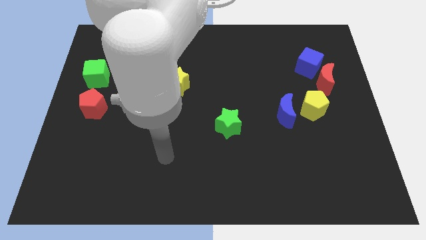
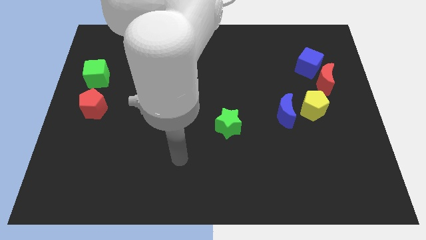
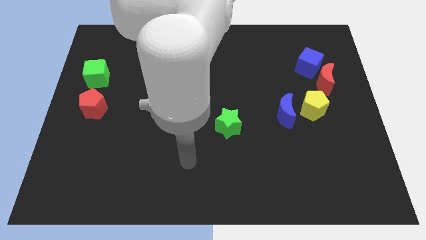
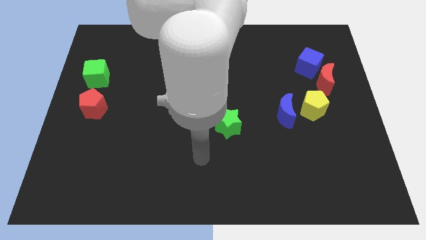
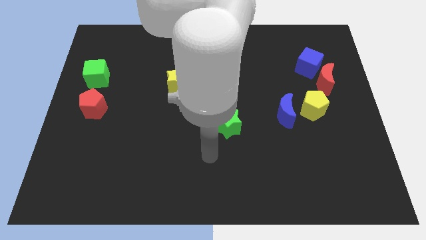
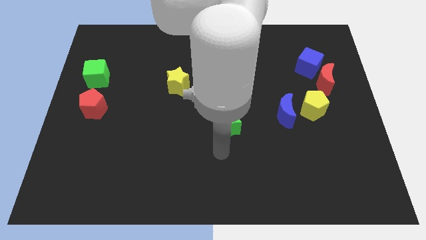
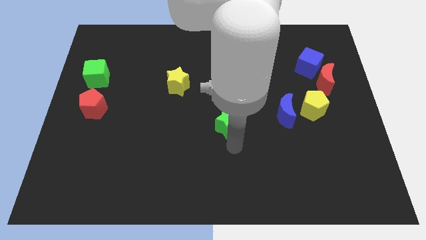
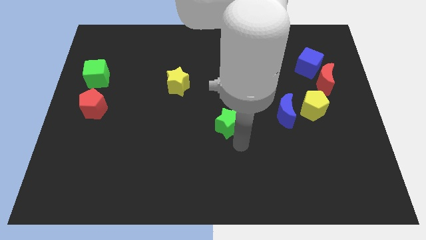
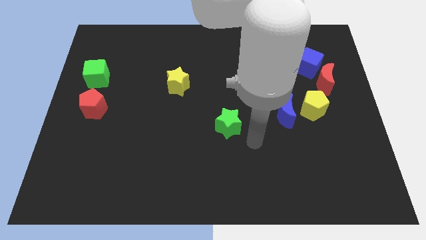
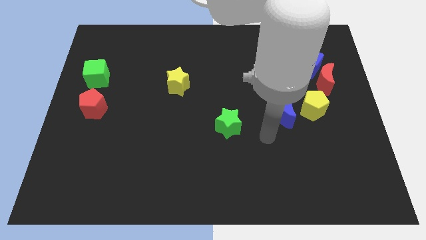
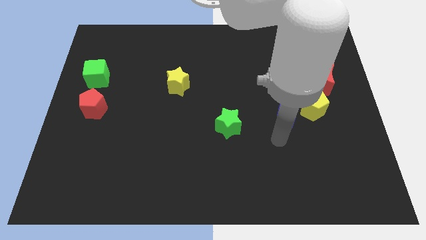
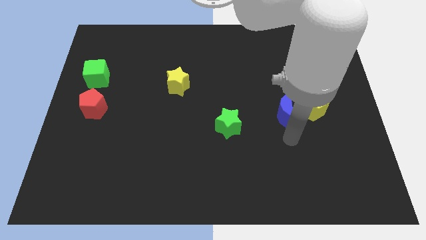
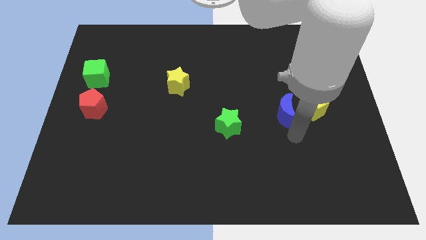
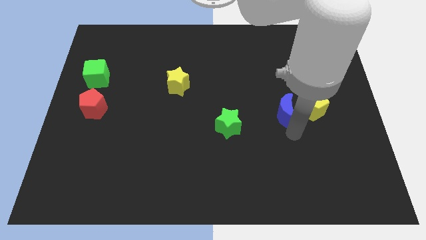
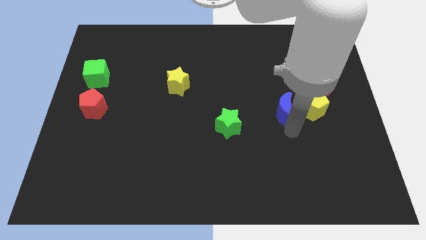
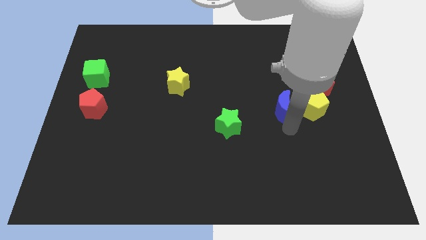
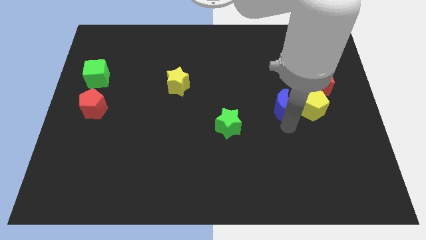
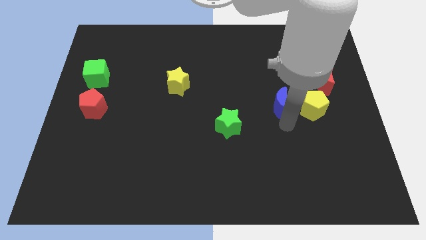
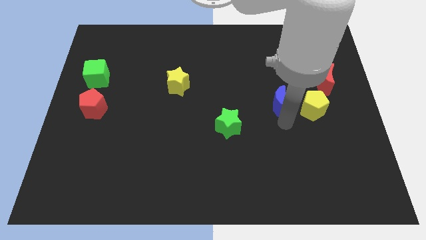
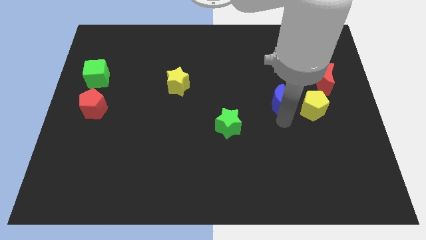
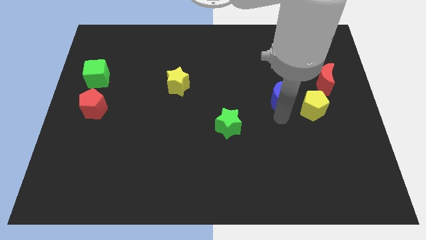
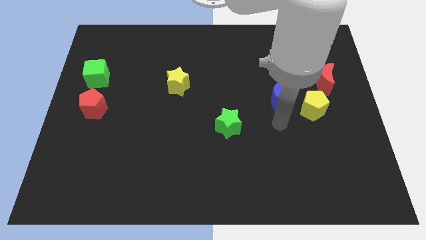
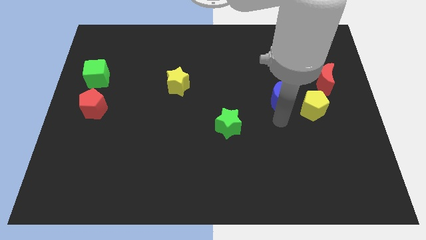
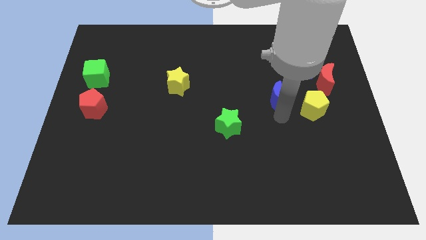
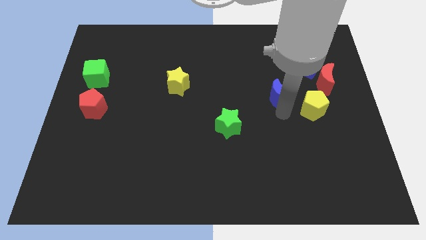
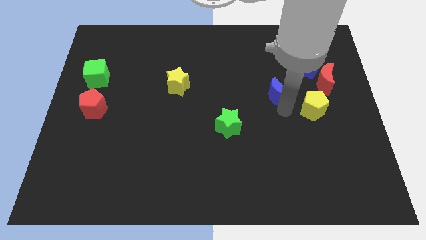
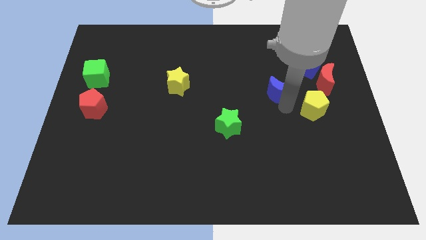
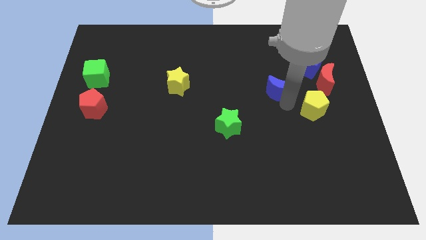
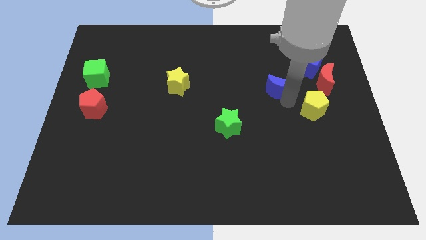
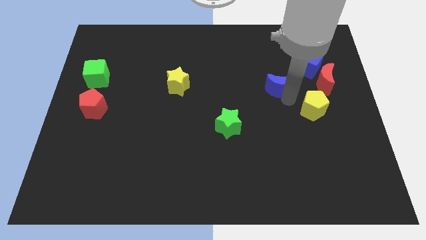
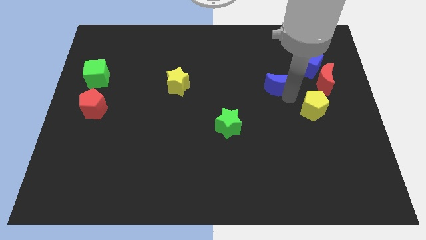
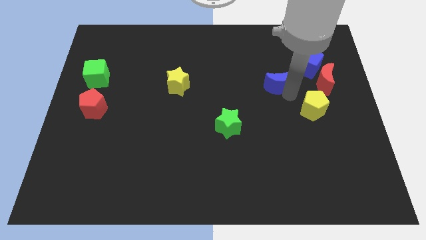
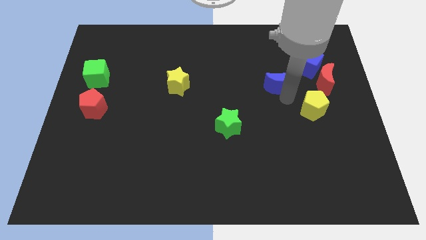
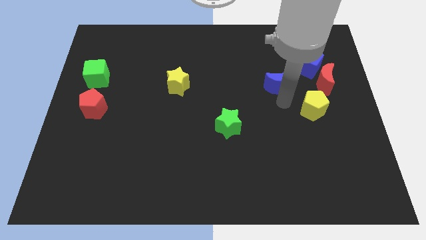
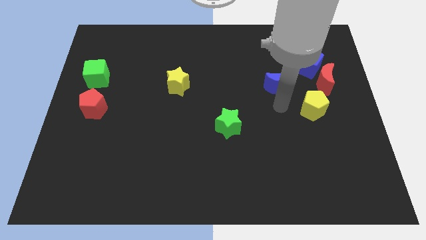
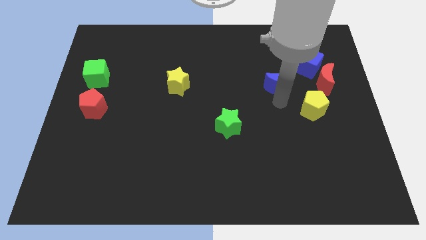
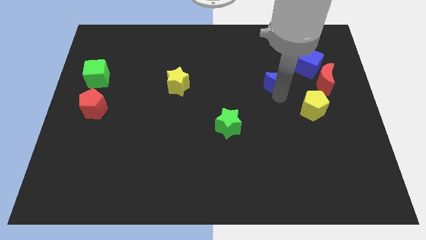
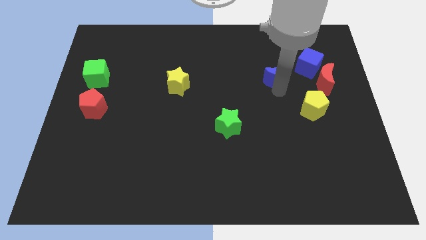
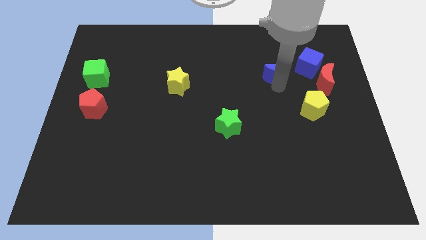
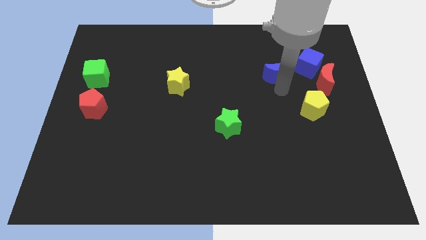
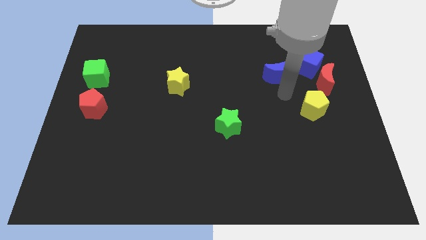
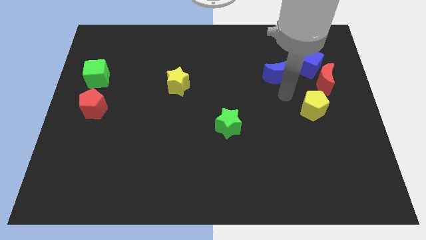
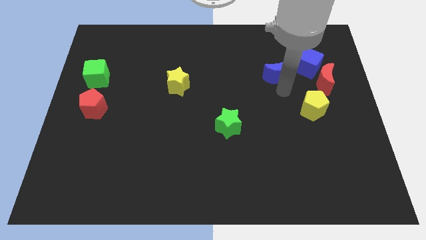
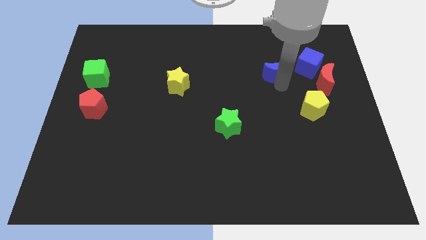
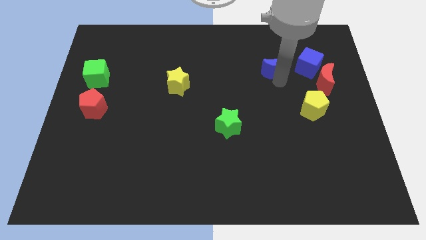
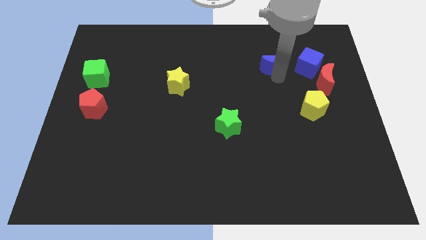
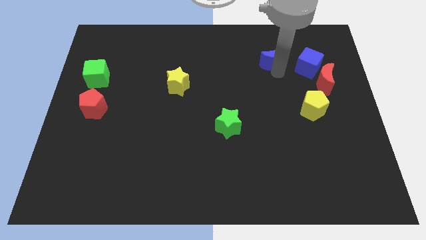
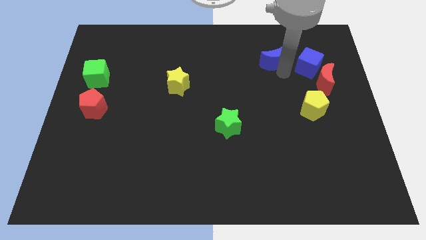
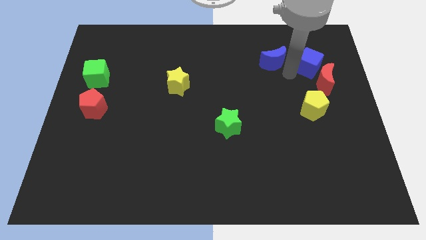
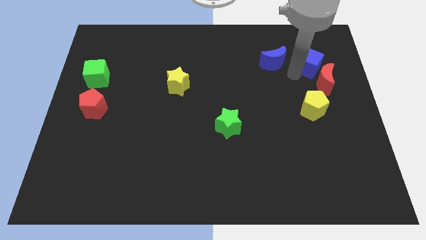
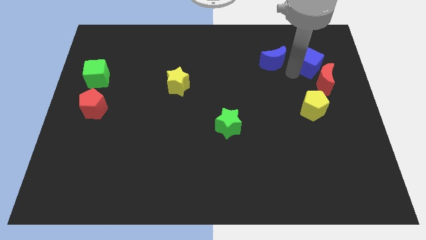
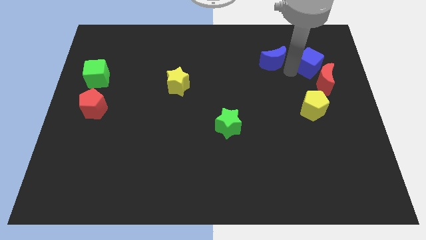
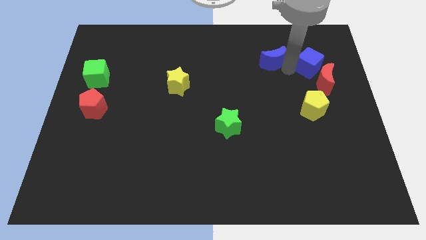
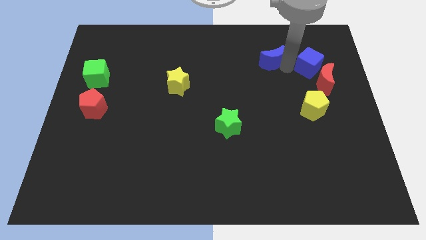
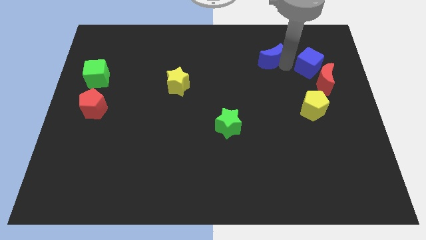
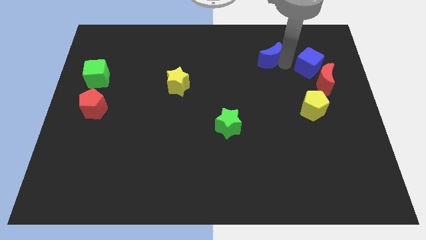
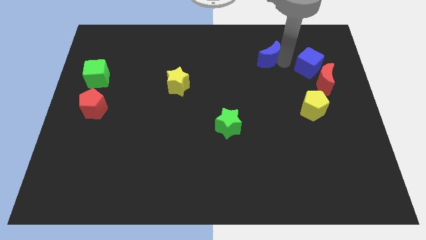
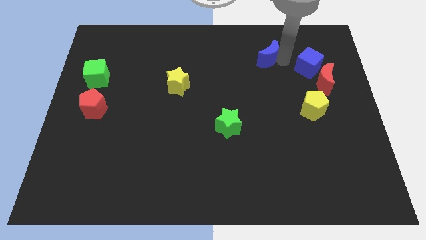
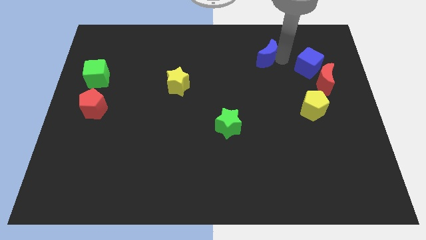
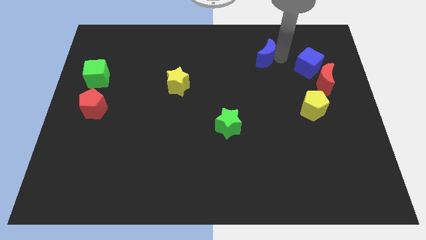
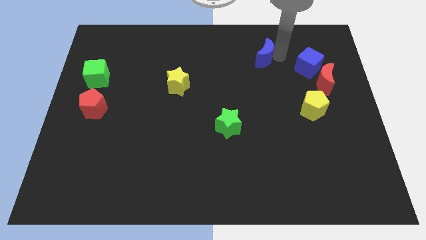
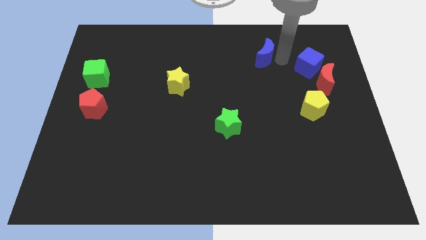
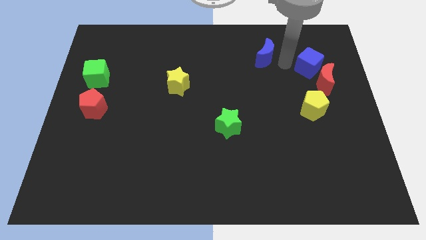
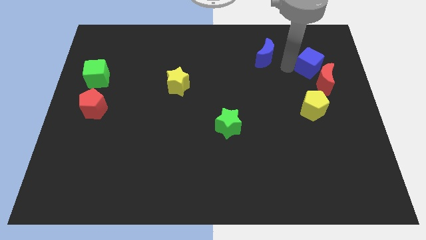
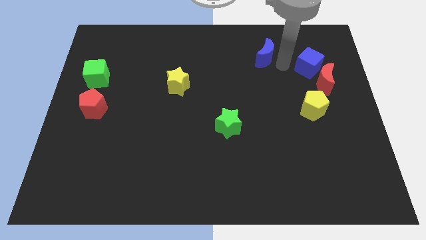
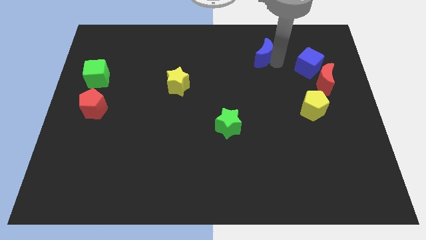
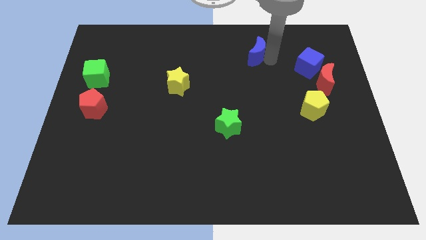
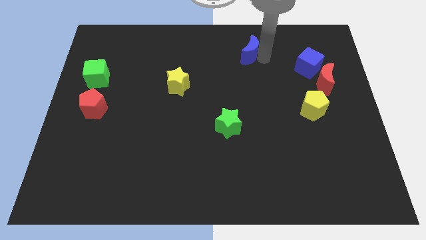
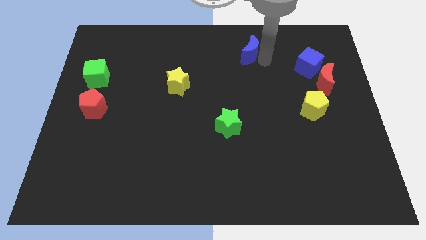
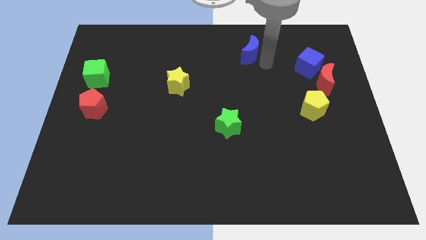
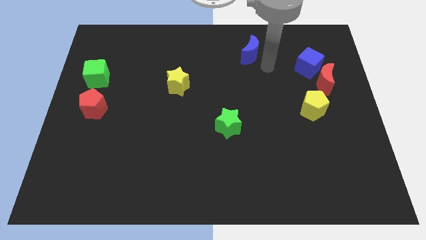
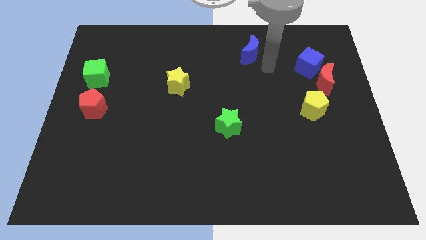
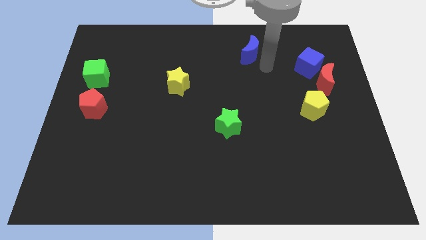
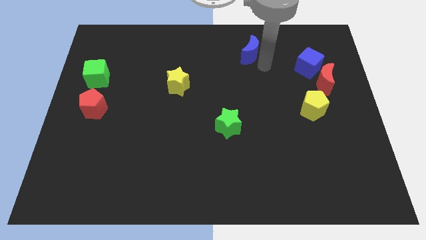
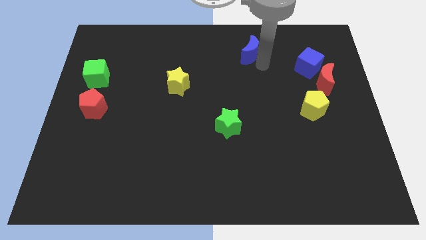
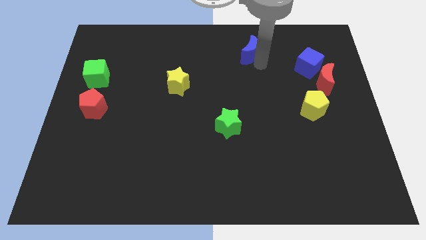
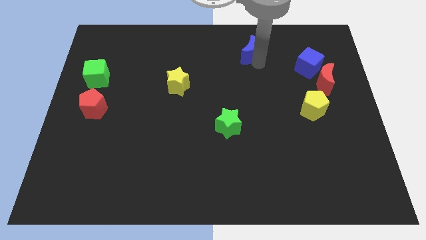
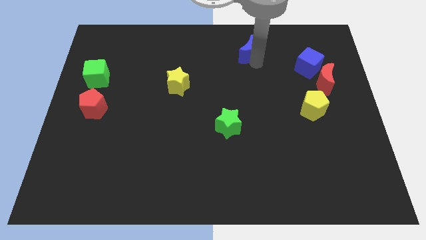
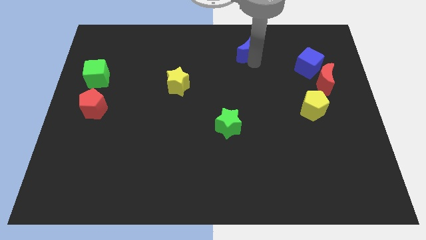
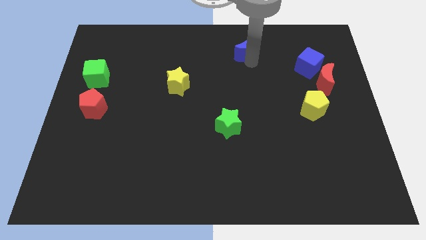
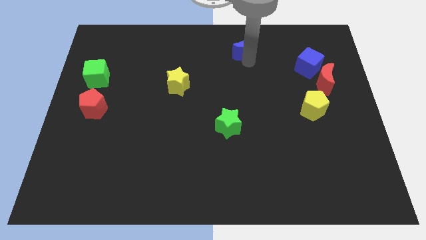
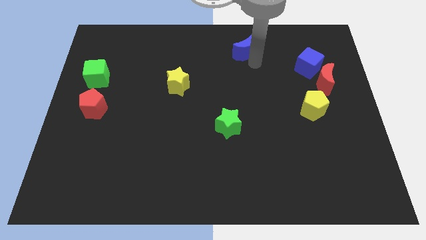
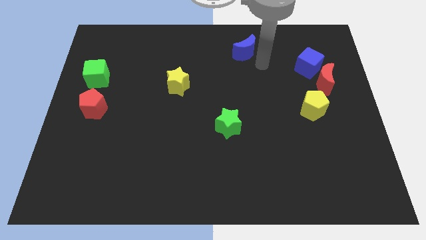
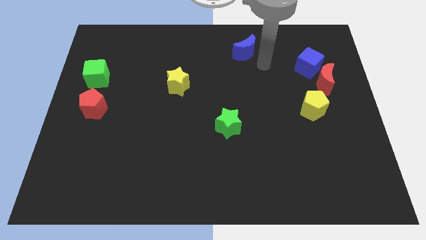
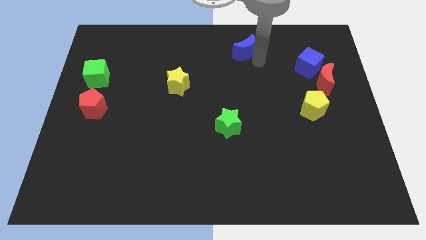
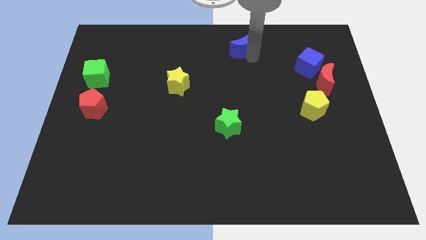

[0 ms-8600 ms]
slide the blue moon to the top
